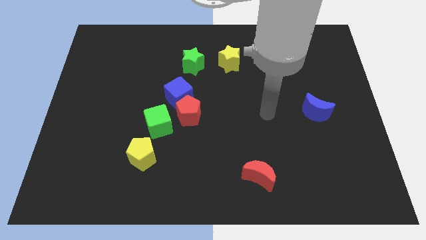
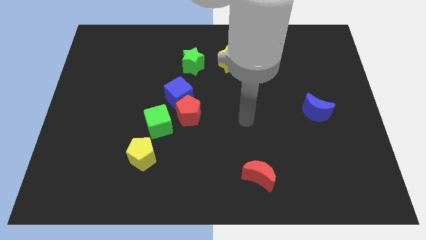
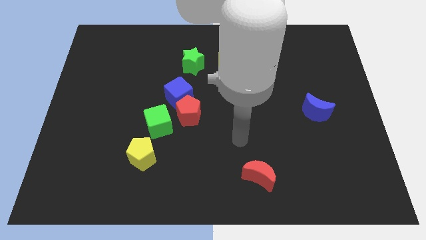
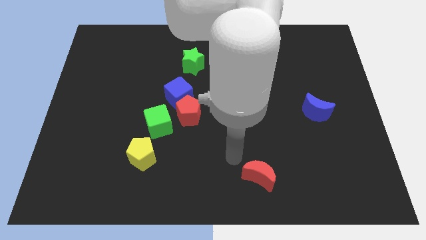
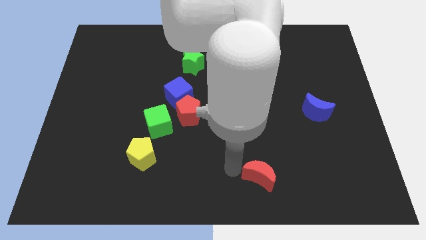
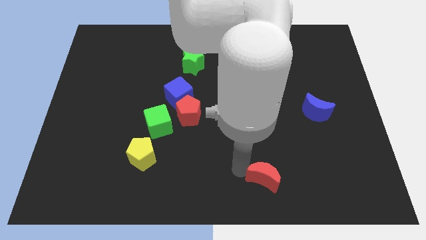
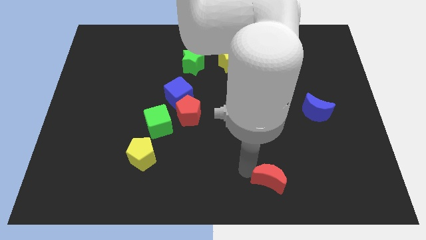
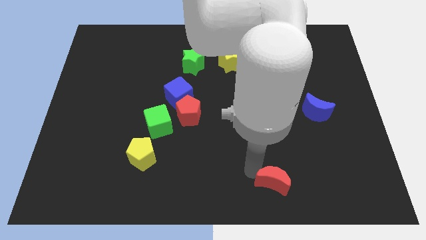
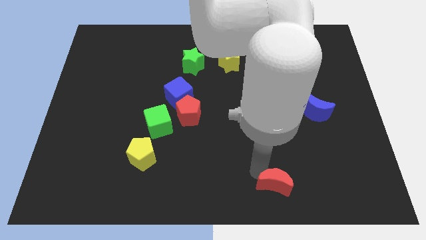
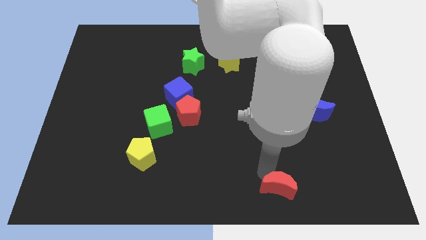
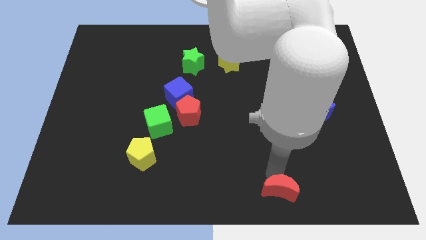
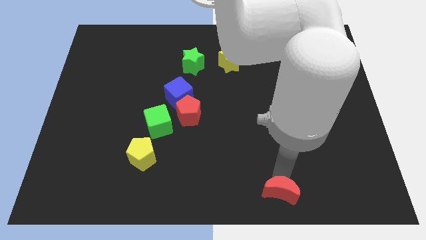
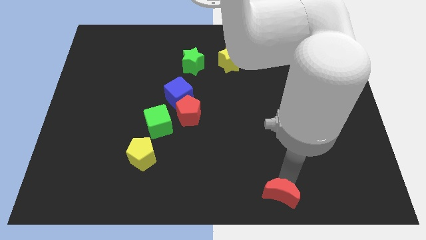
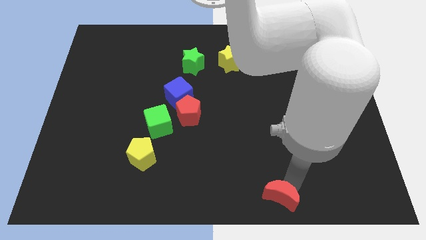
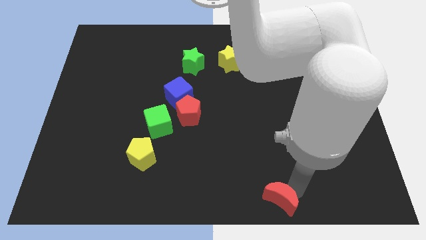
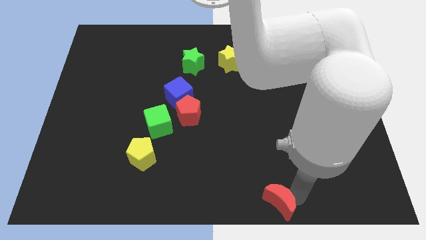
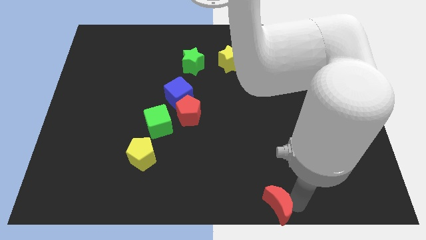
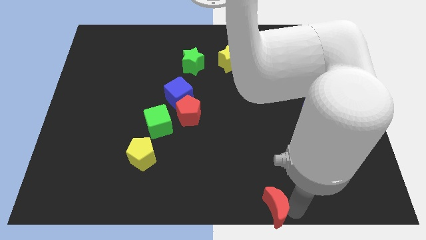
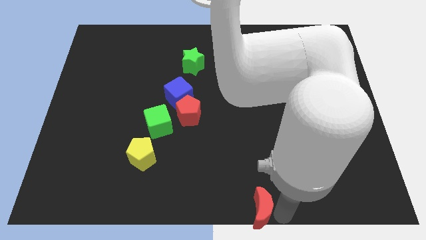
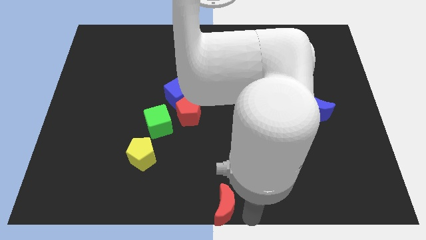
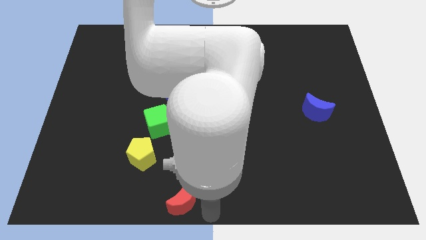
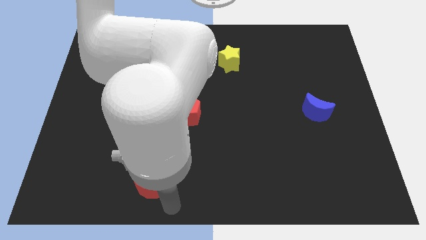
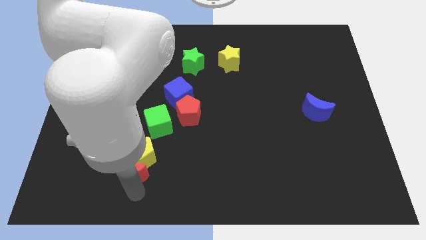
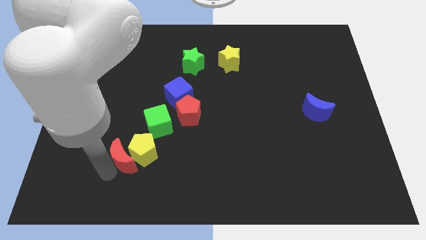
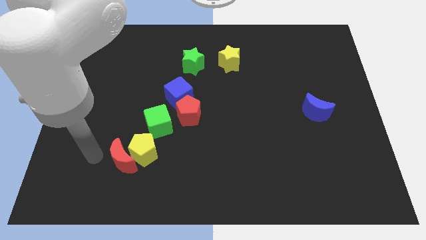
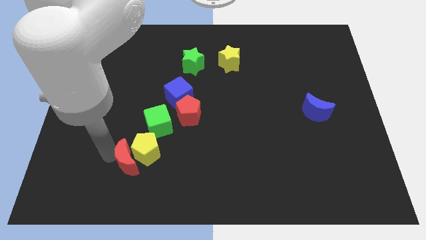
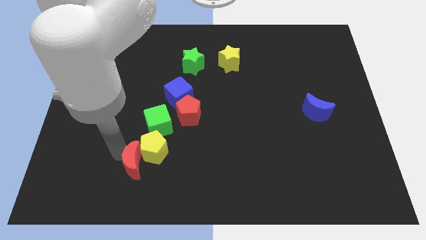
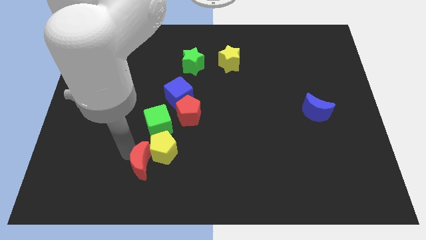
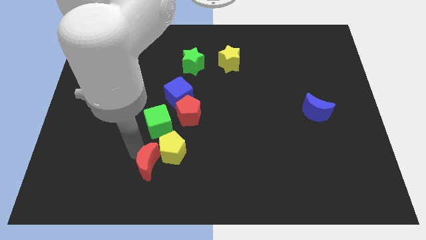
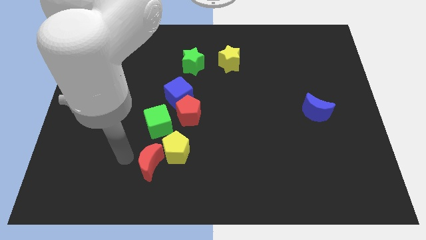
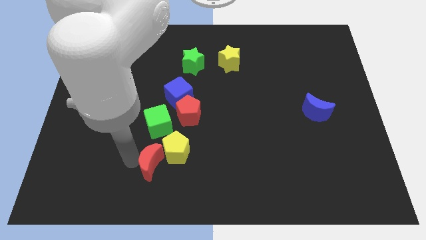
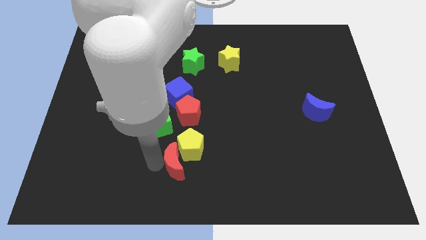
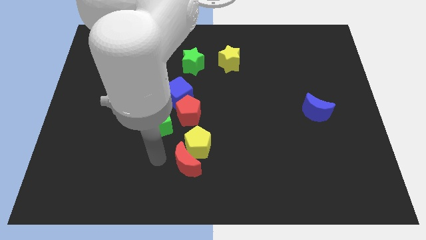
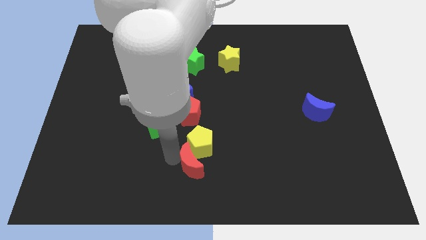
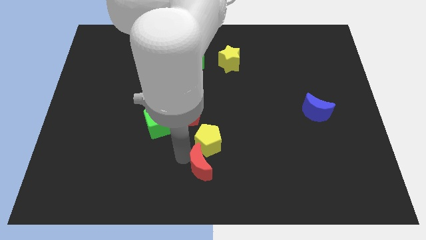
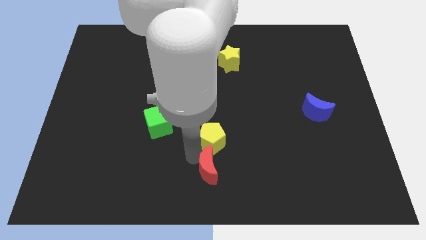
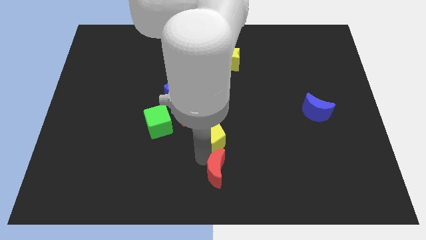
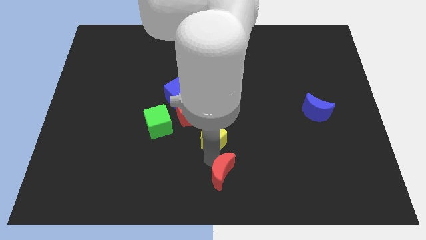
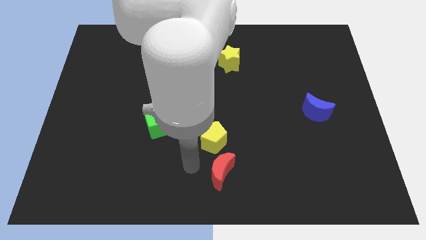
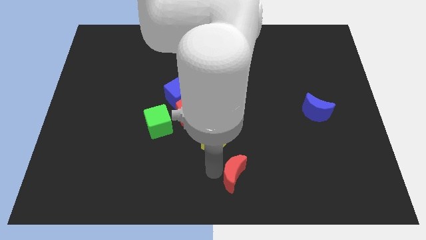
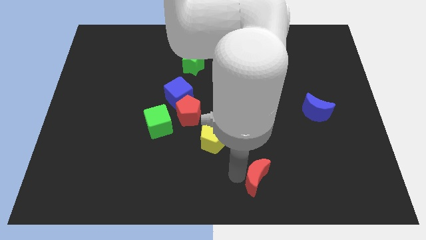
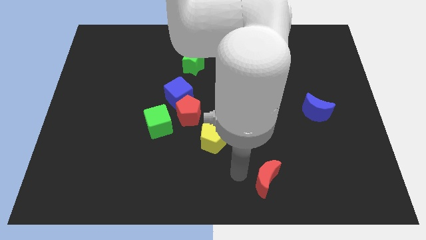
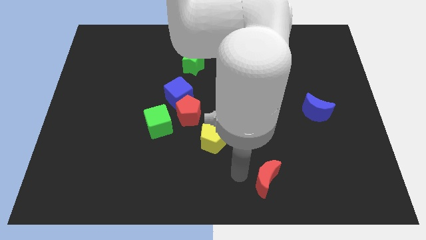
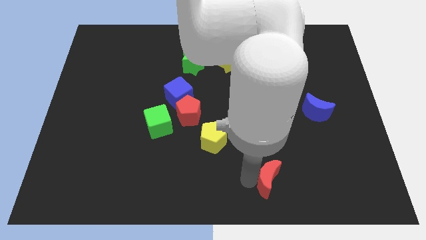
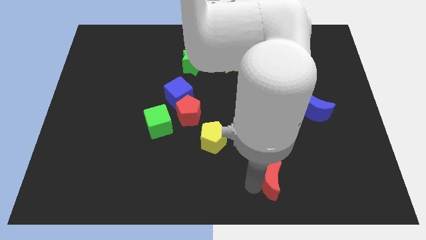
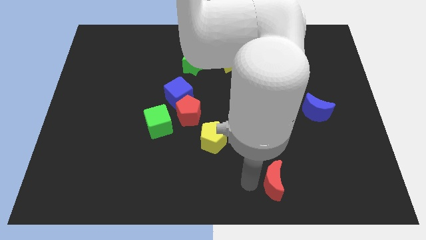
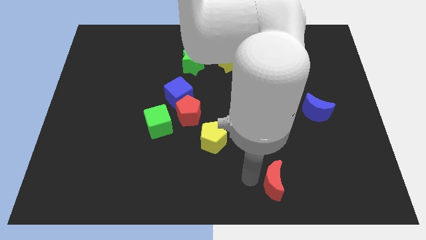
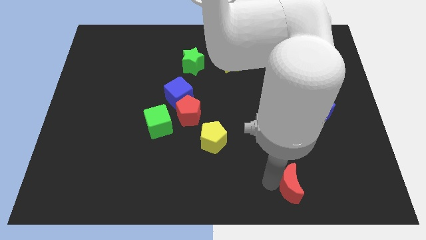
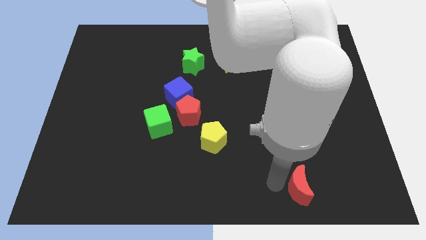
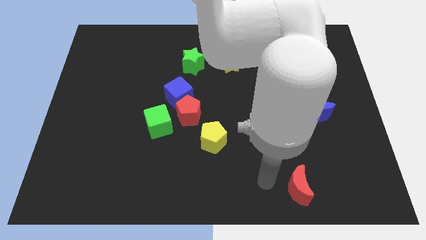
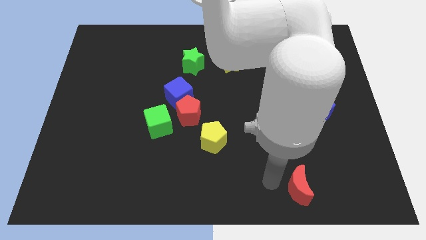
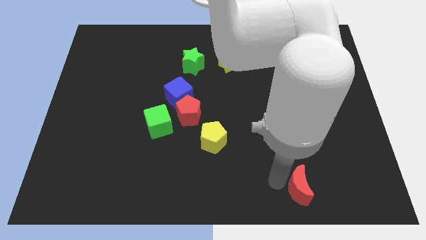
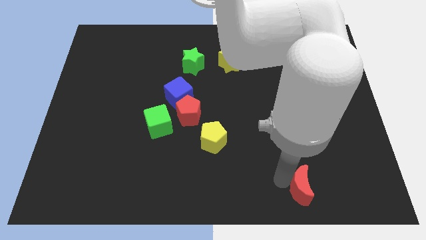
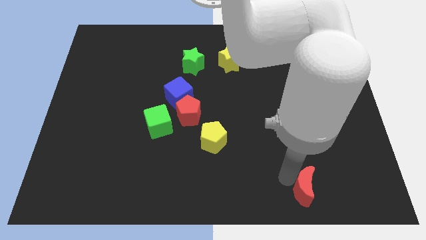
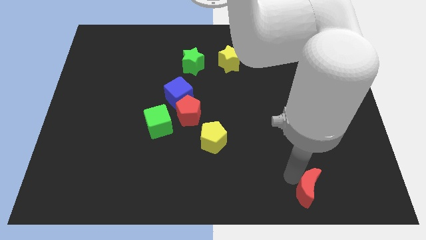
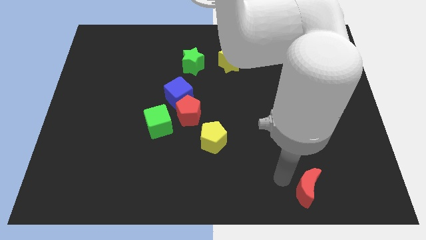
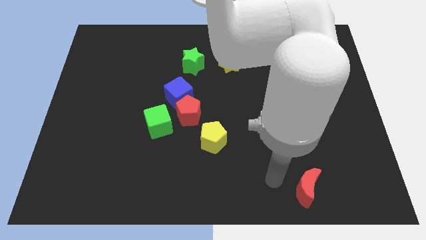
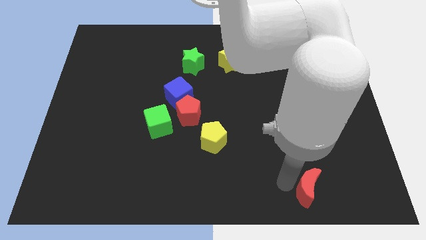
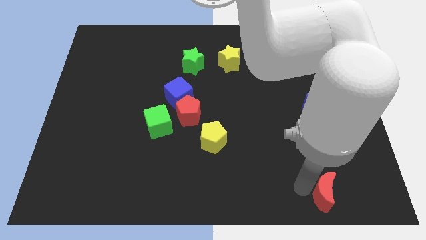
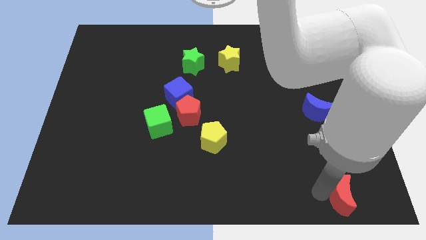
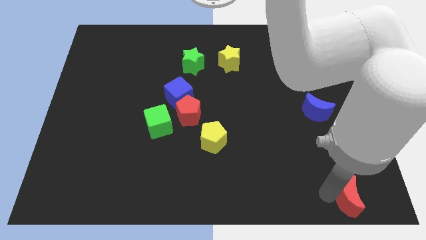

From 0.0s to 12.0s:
put the red moon to the bottom right of the board

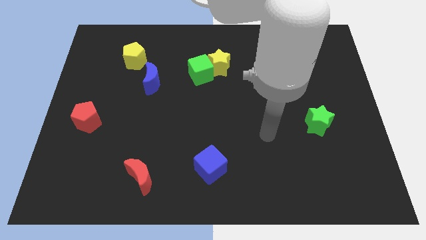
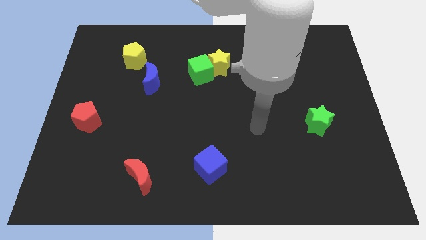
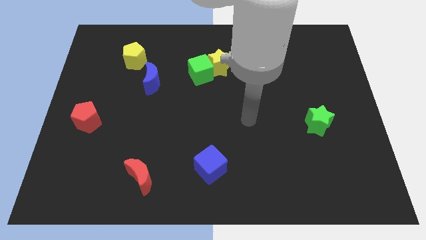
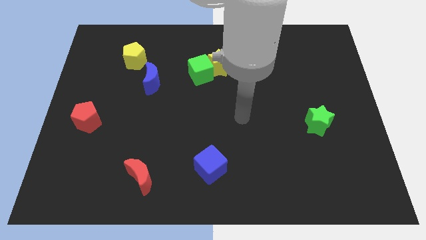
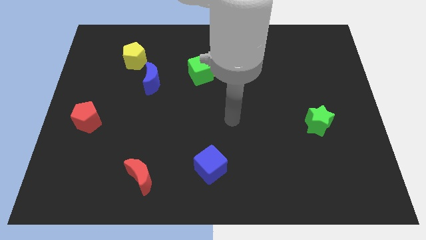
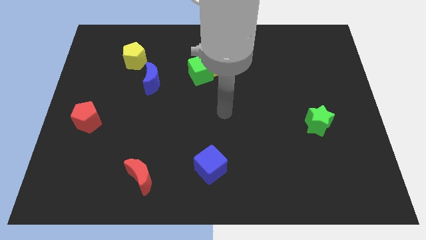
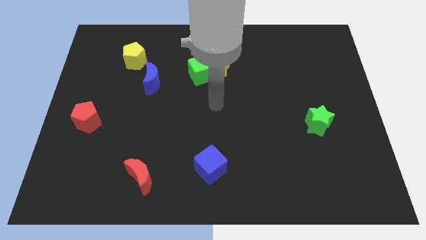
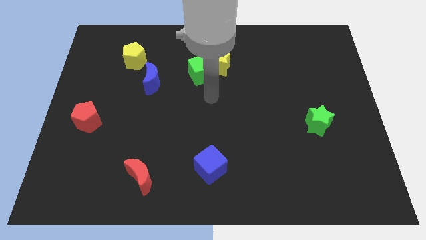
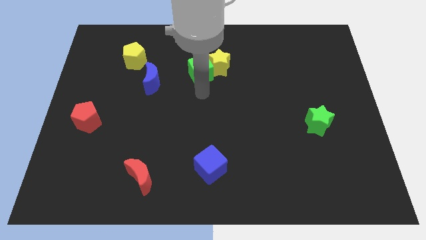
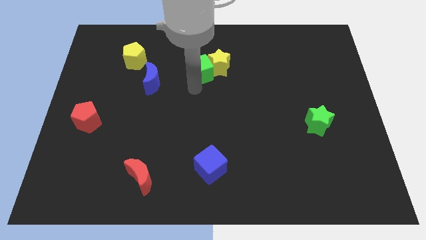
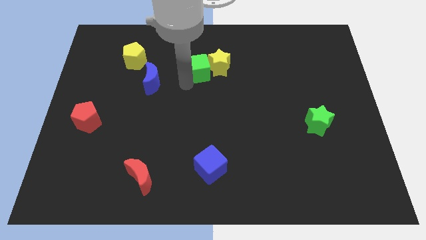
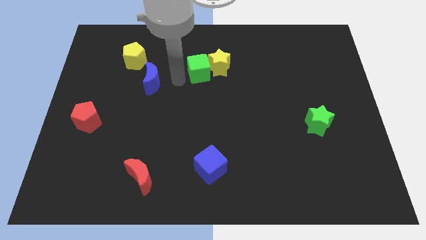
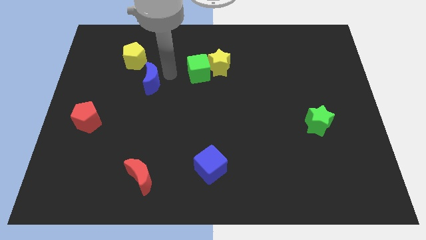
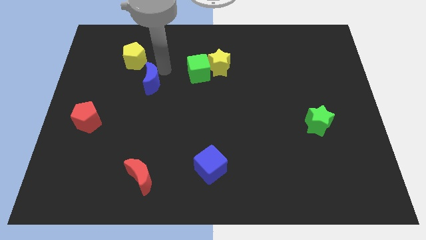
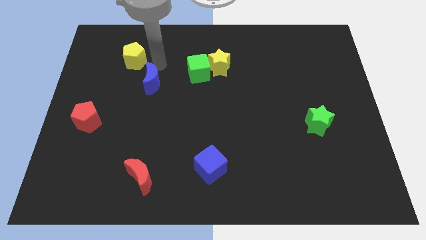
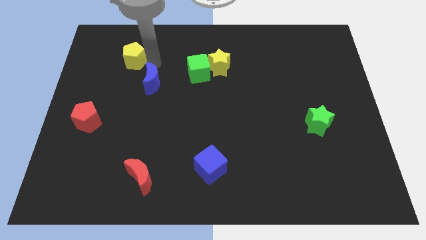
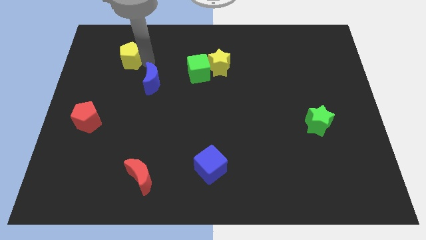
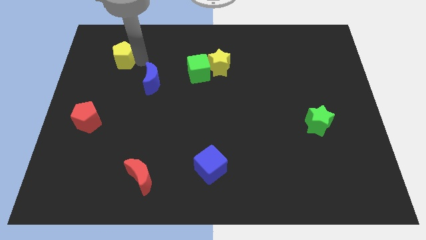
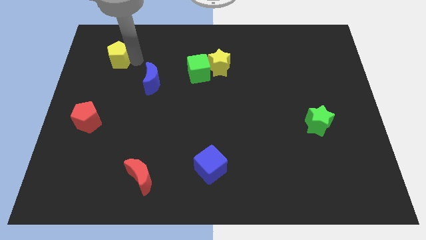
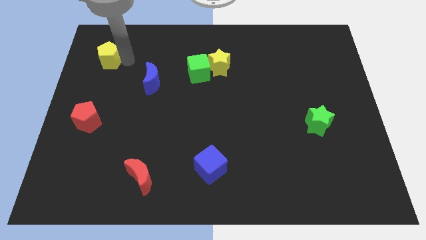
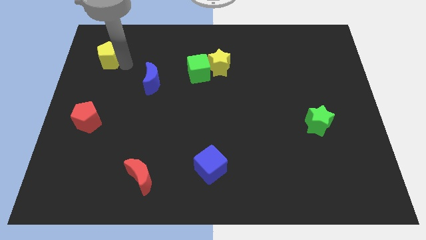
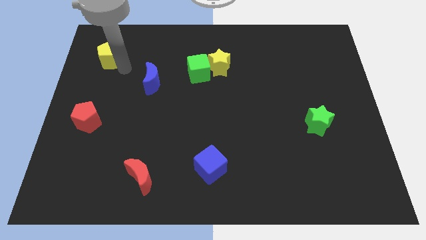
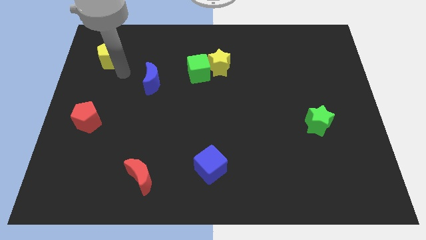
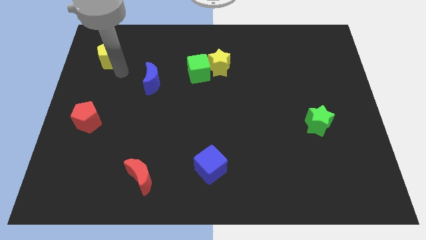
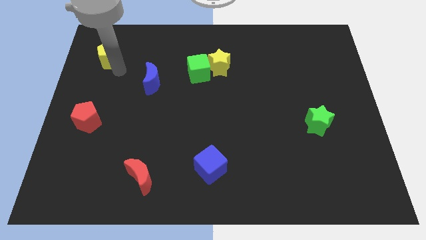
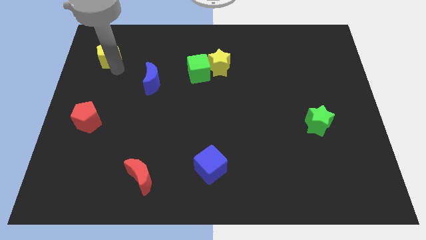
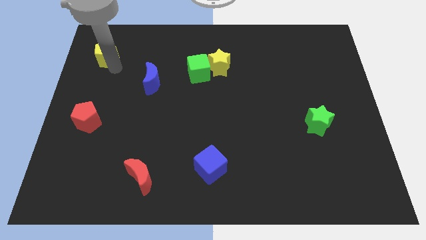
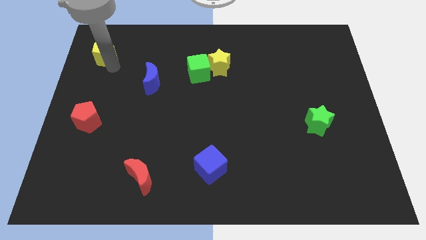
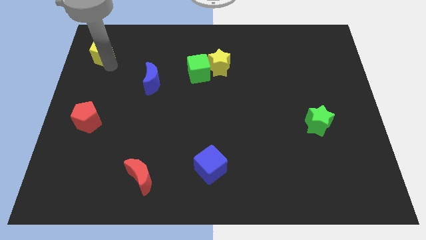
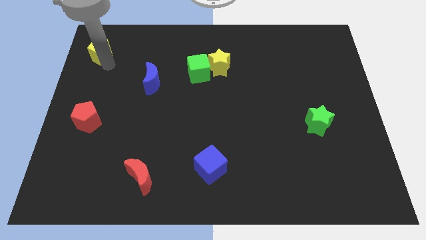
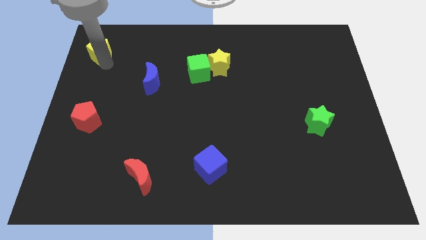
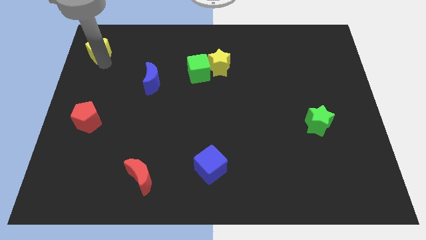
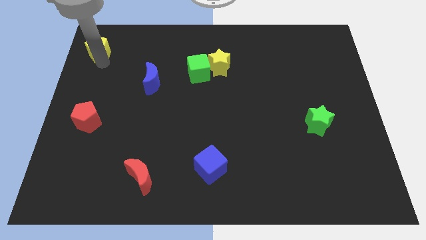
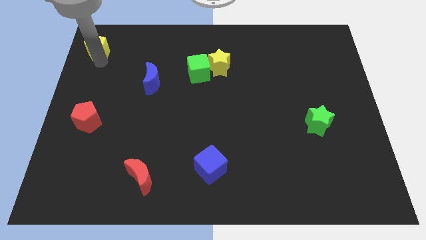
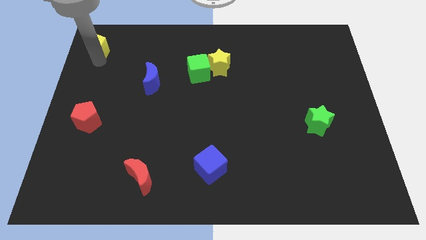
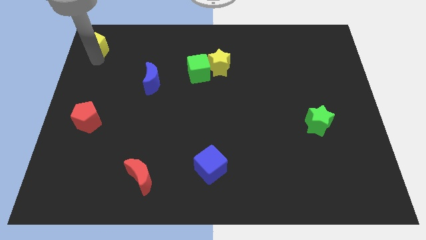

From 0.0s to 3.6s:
put the yellow pentagon to the top left
